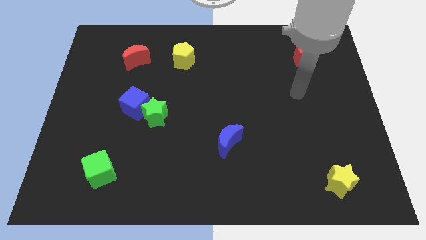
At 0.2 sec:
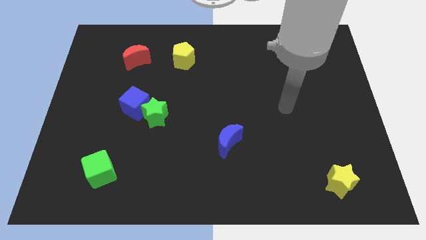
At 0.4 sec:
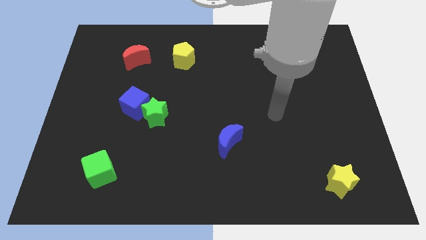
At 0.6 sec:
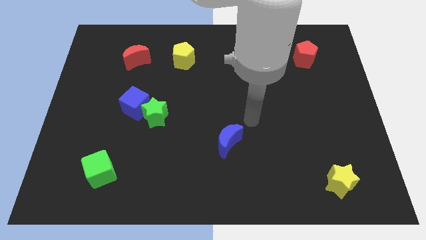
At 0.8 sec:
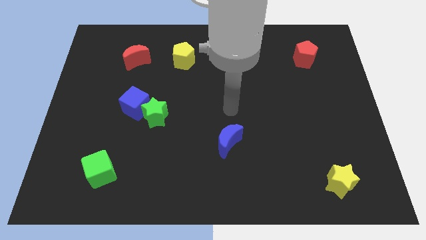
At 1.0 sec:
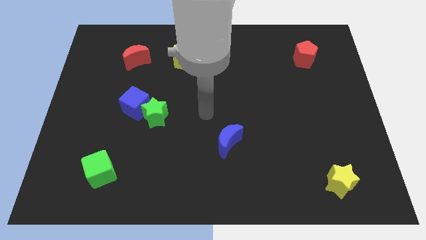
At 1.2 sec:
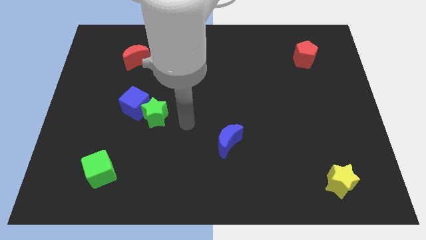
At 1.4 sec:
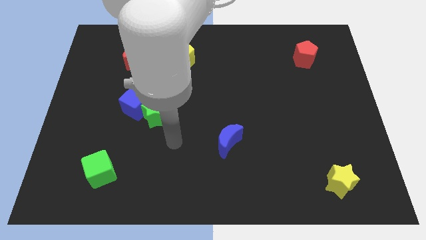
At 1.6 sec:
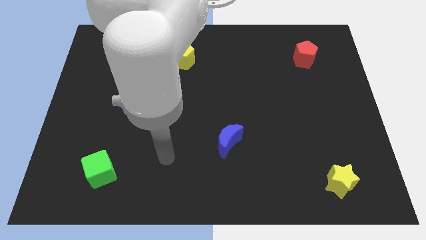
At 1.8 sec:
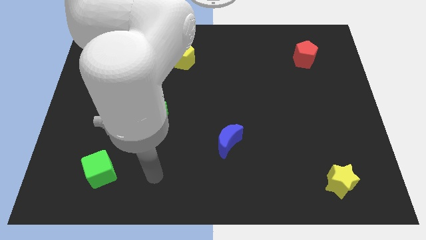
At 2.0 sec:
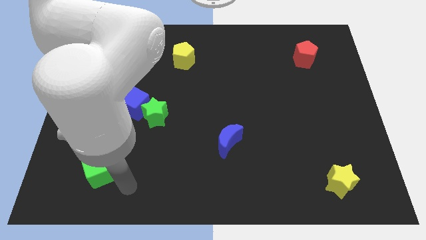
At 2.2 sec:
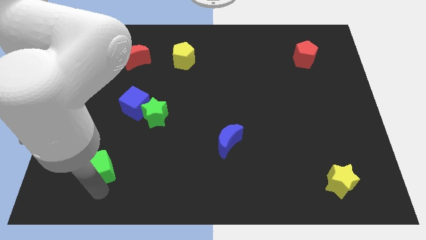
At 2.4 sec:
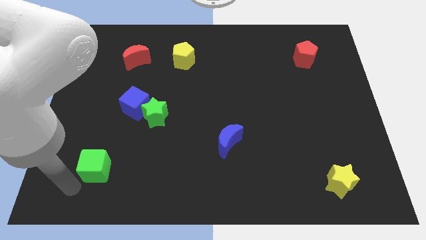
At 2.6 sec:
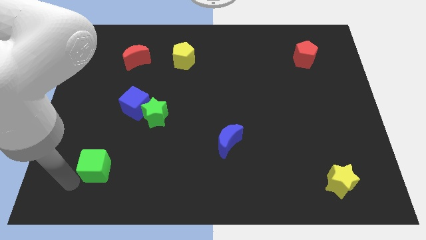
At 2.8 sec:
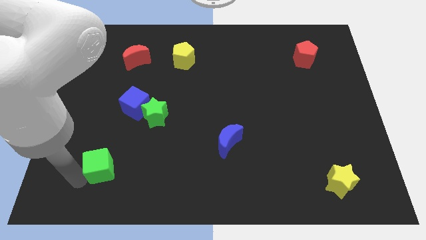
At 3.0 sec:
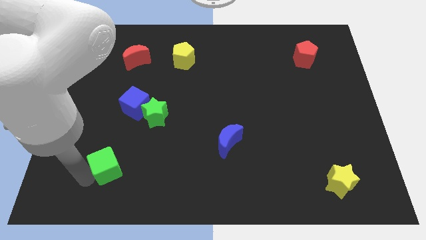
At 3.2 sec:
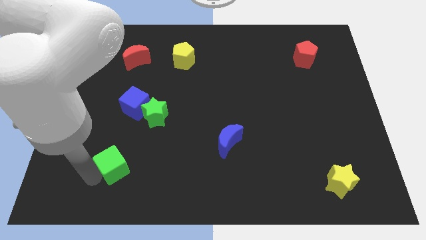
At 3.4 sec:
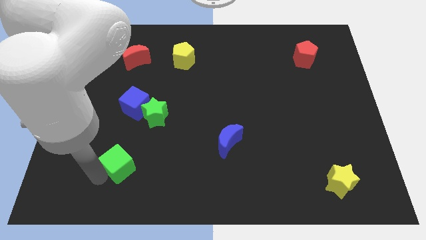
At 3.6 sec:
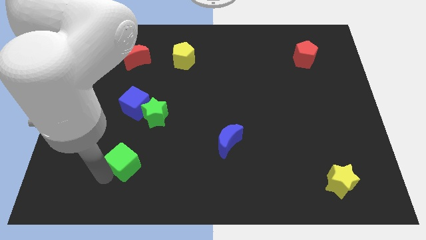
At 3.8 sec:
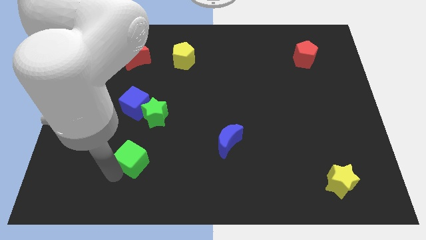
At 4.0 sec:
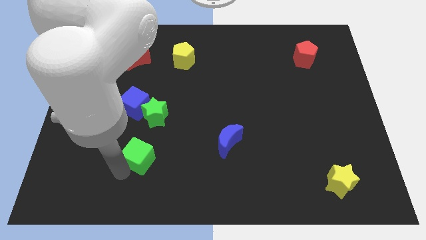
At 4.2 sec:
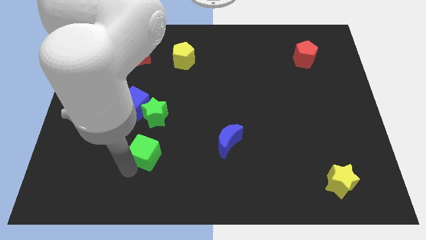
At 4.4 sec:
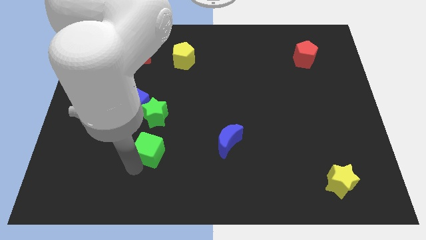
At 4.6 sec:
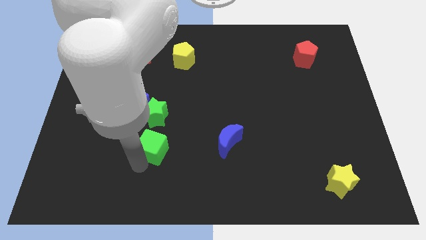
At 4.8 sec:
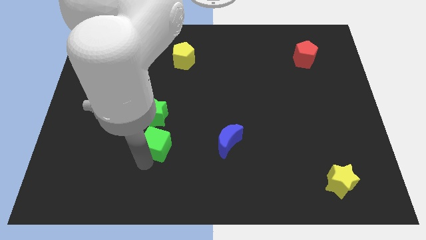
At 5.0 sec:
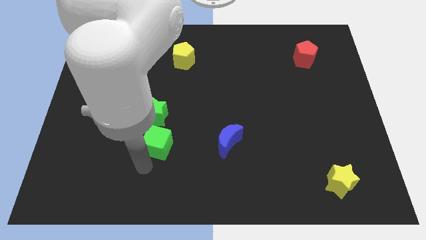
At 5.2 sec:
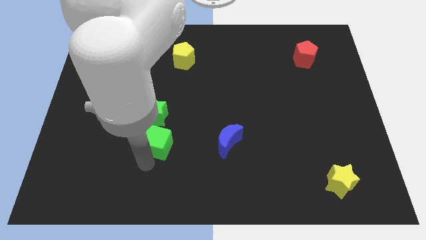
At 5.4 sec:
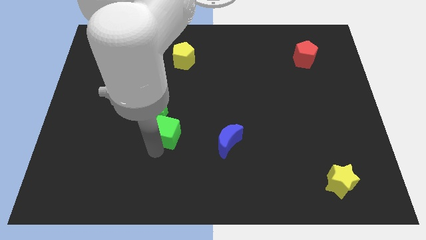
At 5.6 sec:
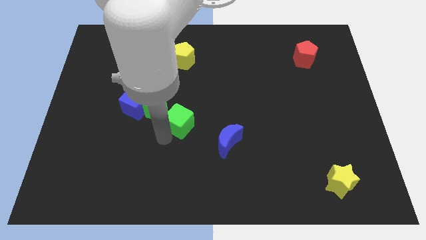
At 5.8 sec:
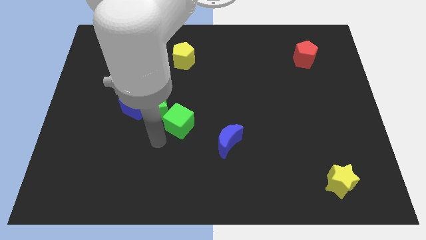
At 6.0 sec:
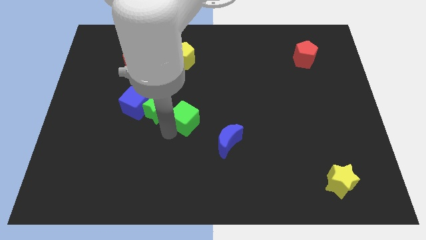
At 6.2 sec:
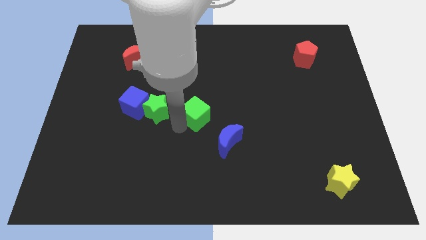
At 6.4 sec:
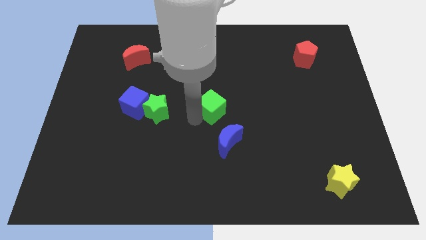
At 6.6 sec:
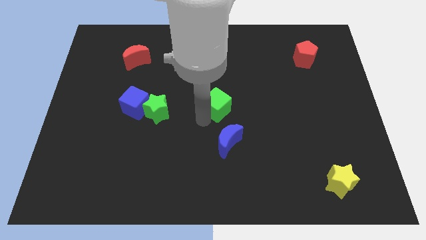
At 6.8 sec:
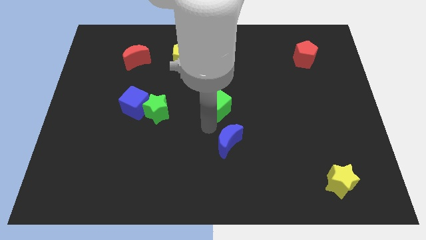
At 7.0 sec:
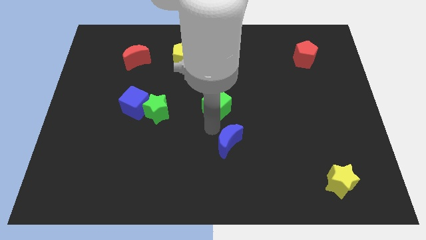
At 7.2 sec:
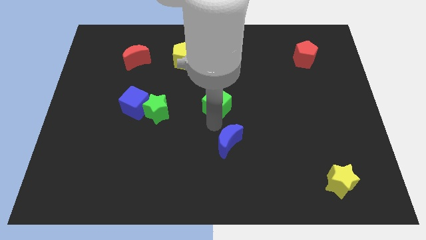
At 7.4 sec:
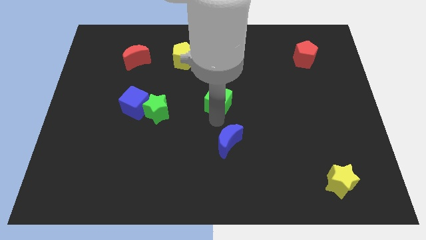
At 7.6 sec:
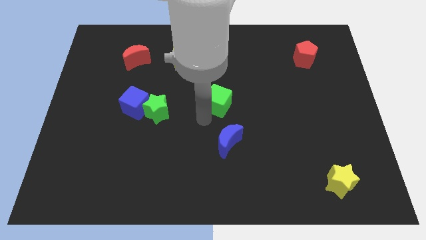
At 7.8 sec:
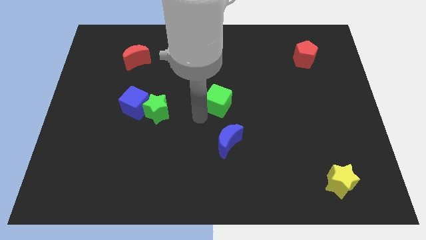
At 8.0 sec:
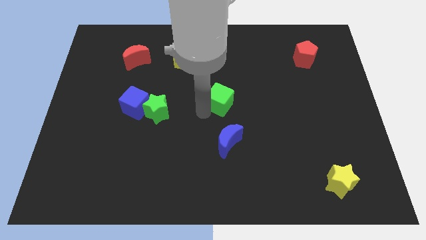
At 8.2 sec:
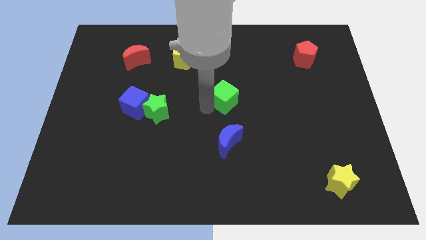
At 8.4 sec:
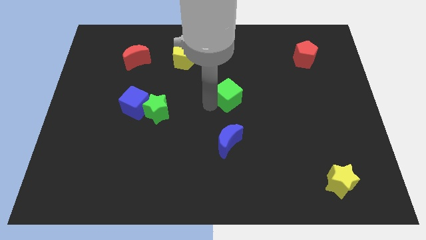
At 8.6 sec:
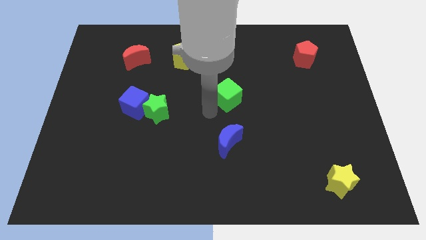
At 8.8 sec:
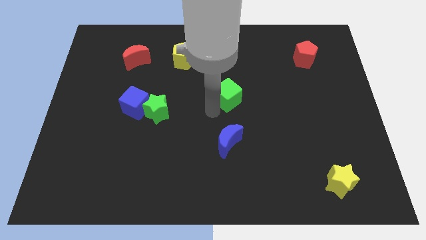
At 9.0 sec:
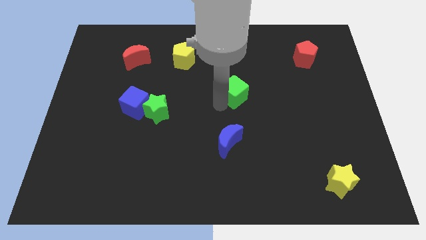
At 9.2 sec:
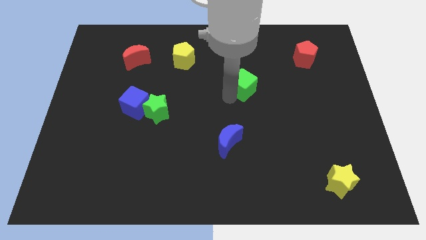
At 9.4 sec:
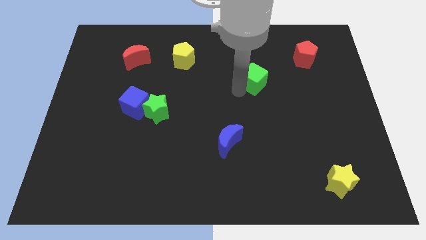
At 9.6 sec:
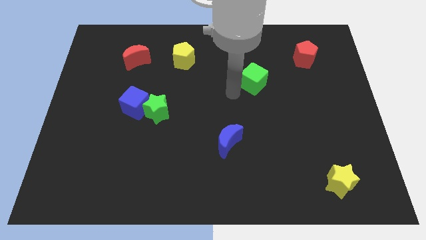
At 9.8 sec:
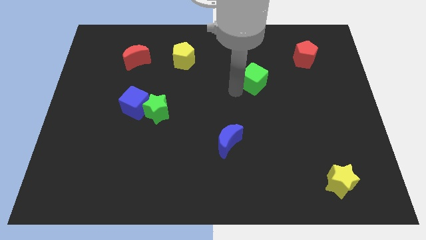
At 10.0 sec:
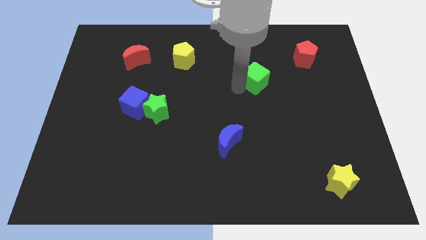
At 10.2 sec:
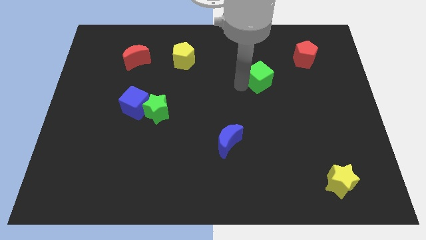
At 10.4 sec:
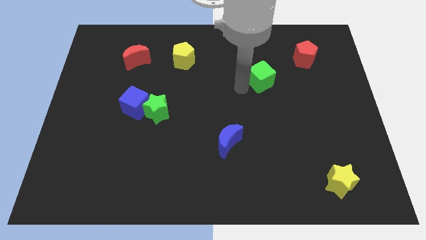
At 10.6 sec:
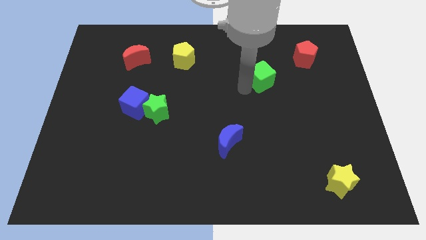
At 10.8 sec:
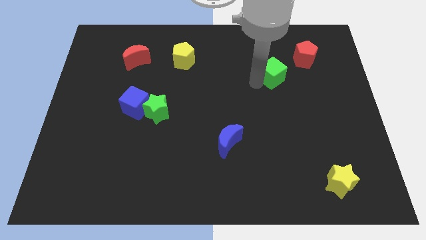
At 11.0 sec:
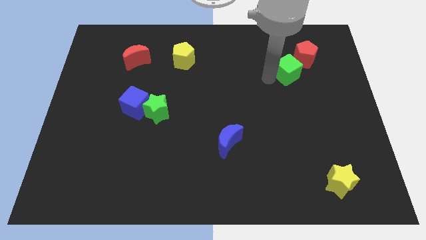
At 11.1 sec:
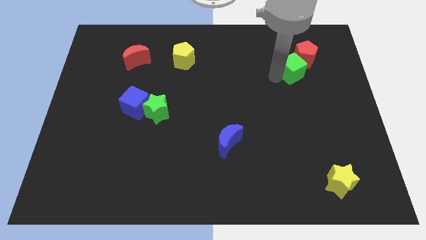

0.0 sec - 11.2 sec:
move the green cube towards the red pentagon
